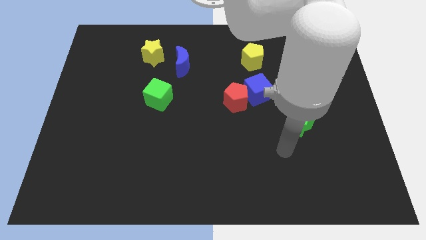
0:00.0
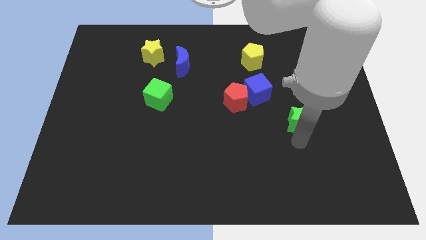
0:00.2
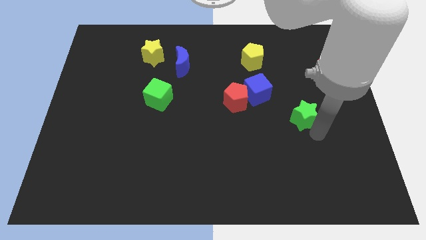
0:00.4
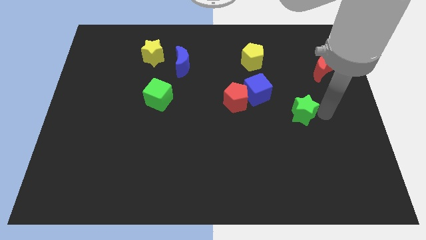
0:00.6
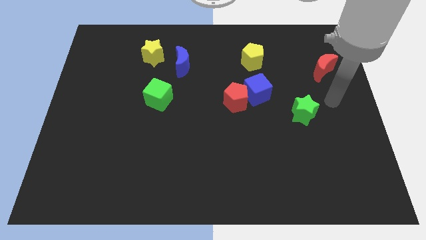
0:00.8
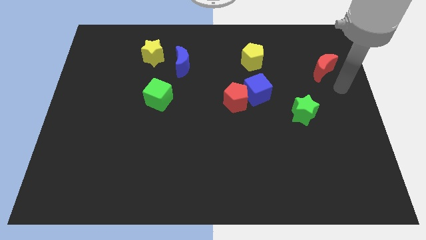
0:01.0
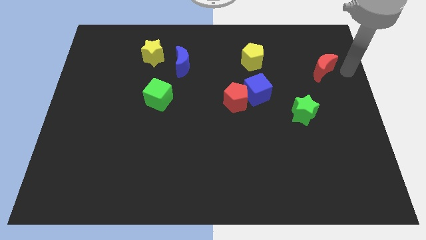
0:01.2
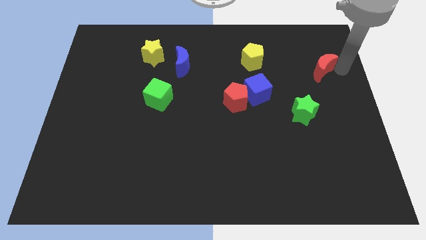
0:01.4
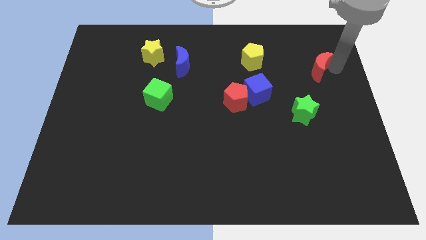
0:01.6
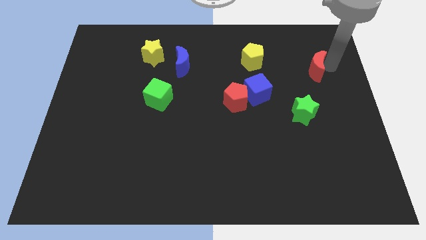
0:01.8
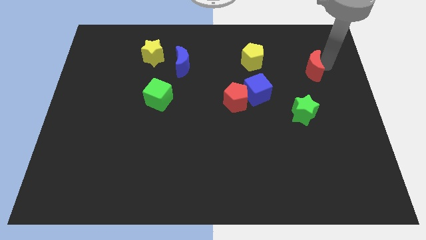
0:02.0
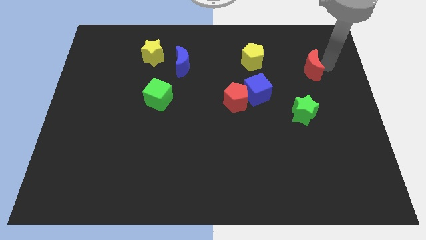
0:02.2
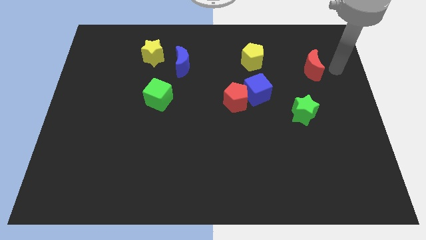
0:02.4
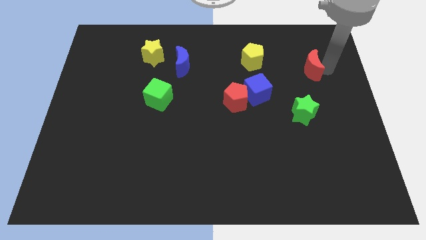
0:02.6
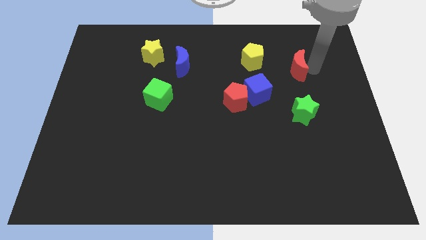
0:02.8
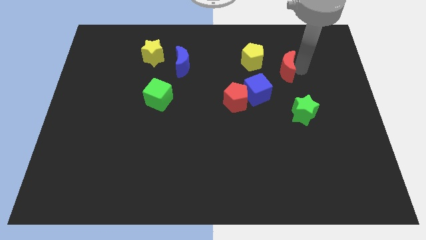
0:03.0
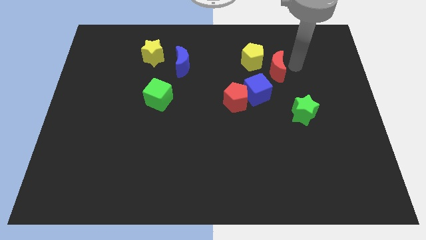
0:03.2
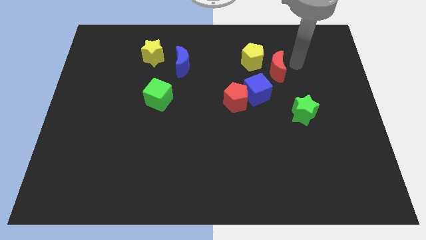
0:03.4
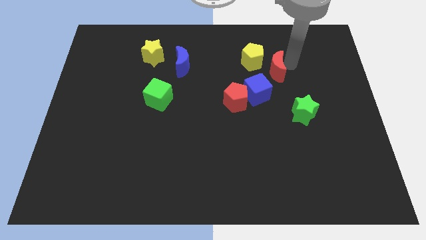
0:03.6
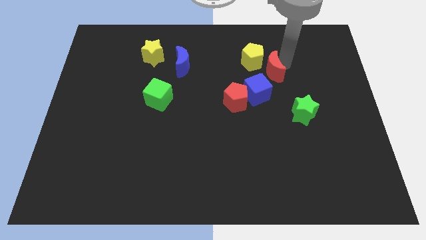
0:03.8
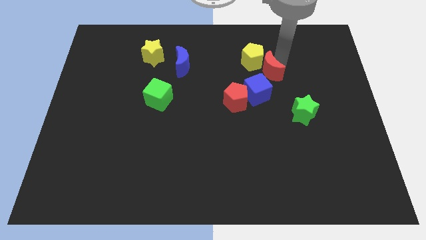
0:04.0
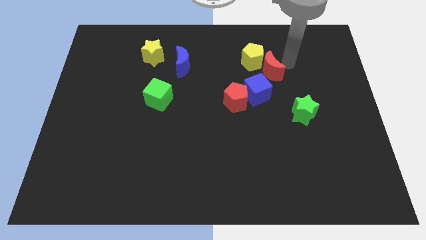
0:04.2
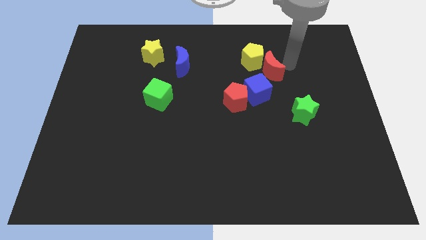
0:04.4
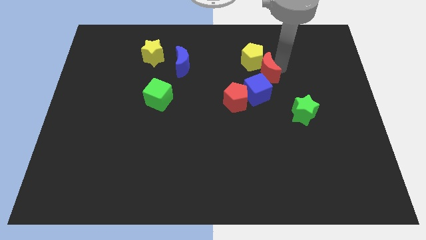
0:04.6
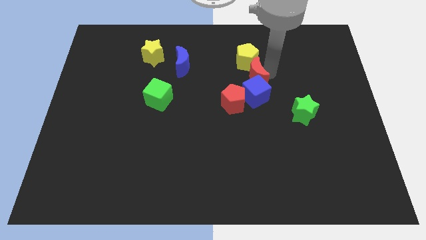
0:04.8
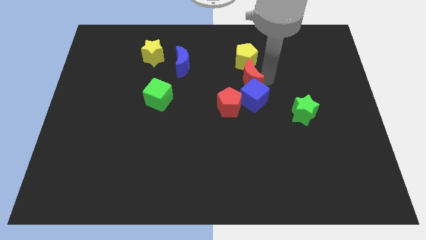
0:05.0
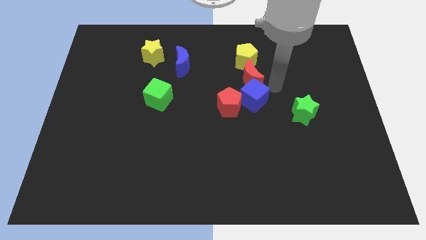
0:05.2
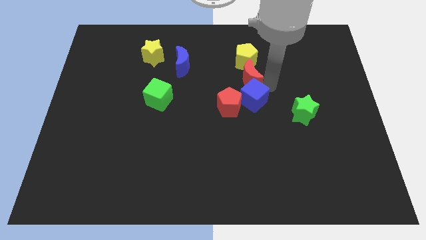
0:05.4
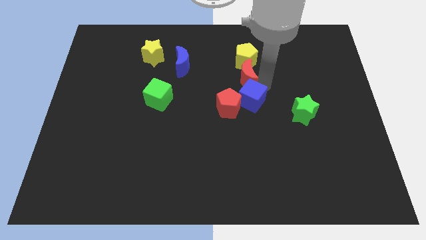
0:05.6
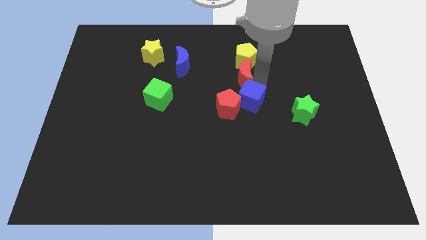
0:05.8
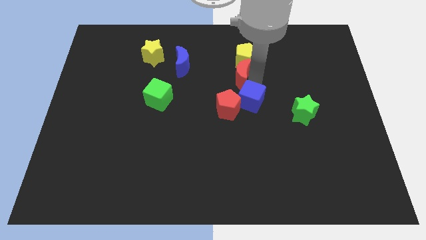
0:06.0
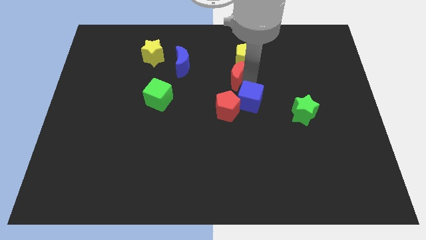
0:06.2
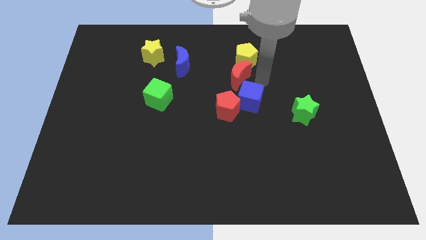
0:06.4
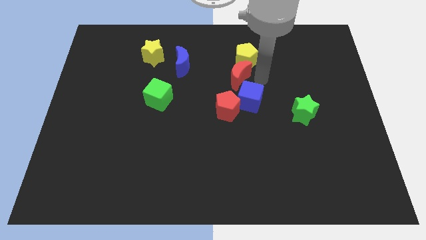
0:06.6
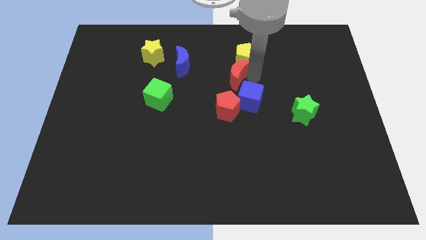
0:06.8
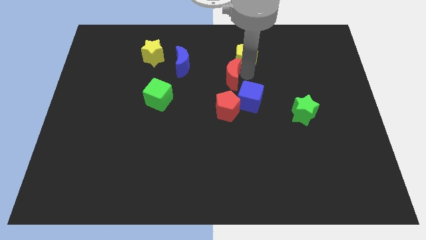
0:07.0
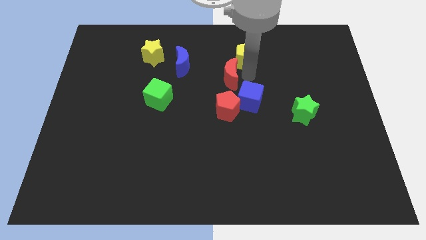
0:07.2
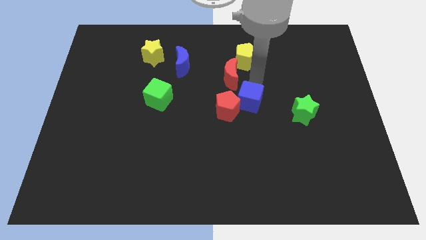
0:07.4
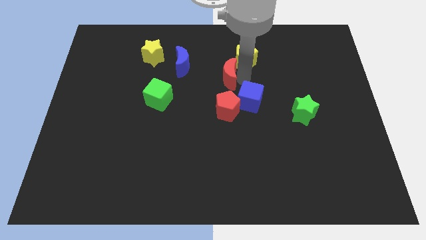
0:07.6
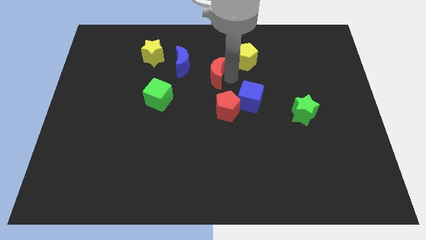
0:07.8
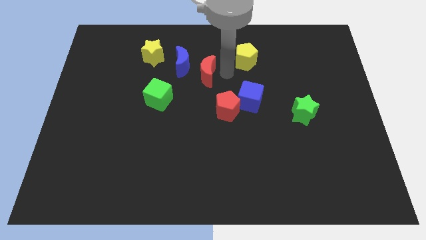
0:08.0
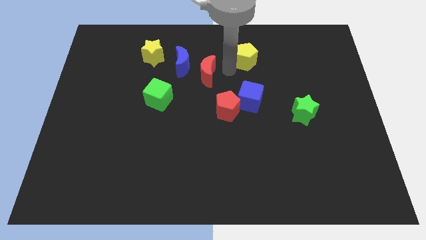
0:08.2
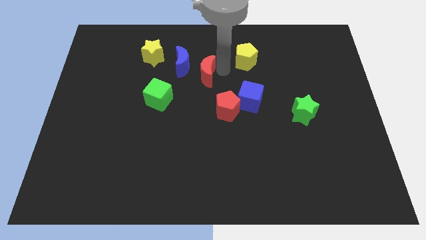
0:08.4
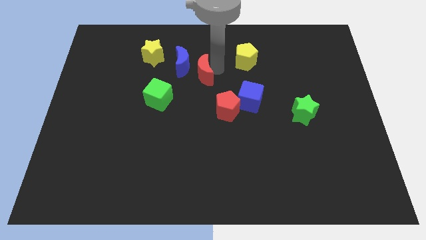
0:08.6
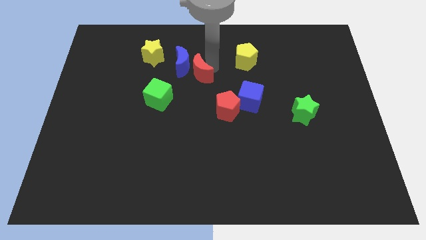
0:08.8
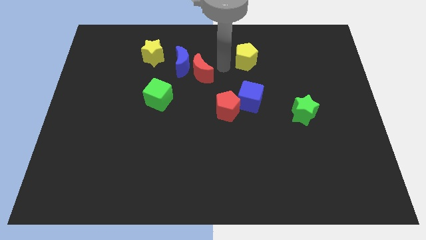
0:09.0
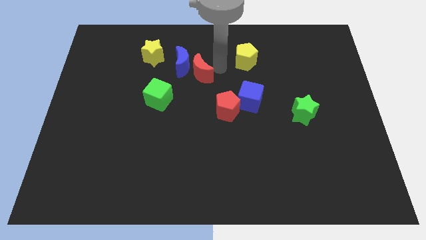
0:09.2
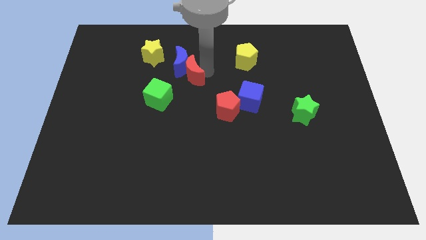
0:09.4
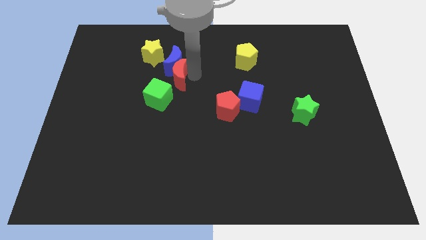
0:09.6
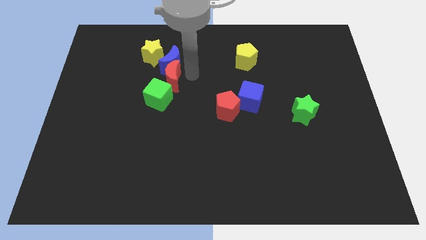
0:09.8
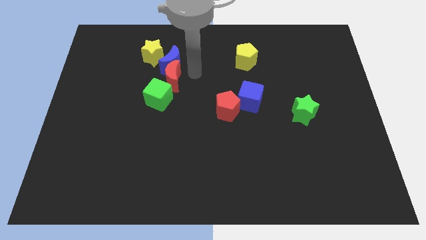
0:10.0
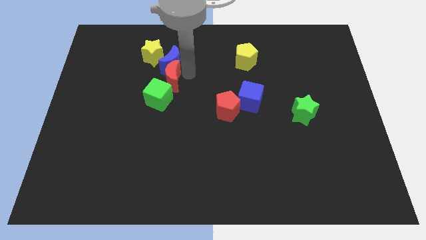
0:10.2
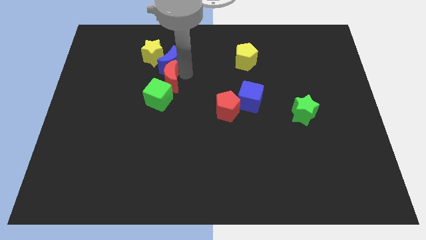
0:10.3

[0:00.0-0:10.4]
move the red moon to the bottom of the yellow star

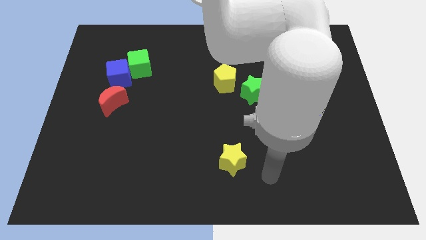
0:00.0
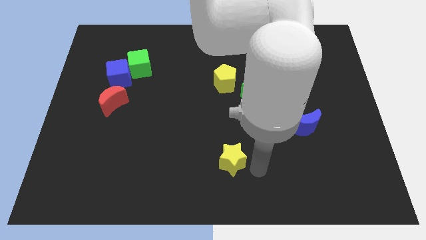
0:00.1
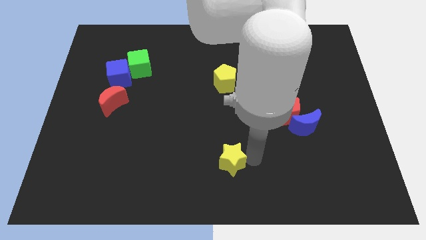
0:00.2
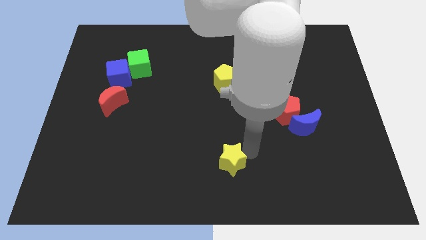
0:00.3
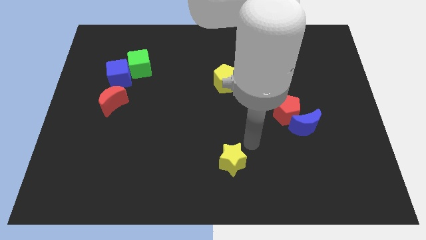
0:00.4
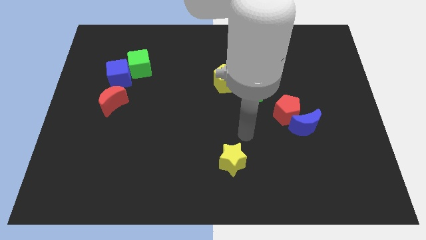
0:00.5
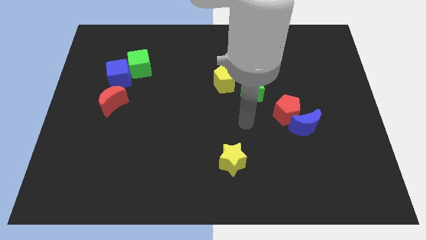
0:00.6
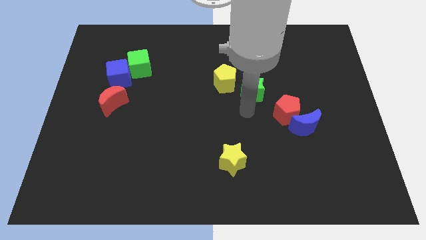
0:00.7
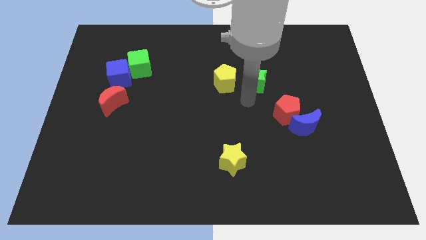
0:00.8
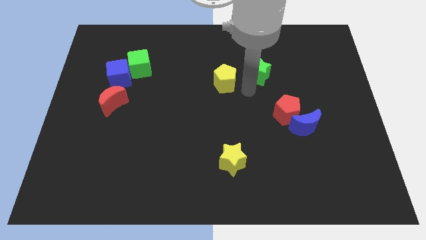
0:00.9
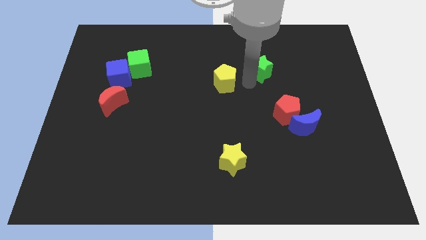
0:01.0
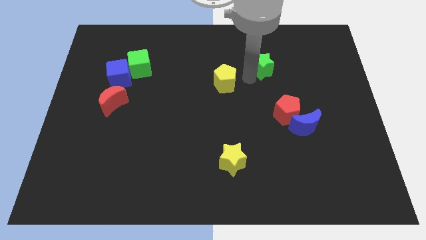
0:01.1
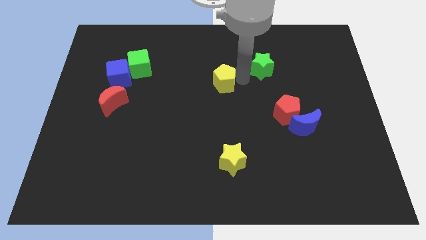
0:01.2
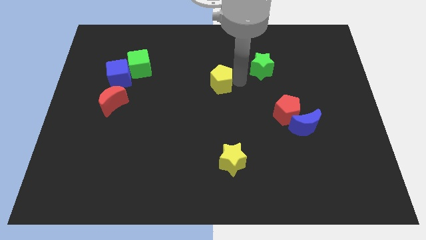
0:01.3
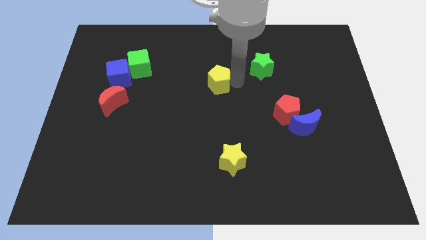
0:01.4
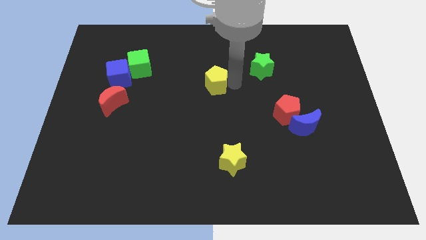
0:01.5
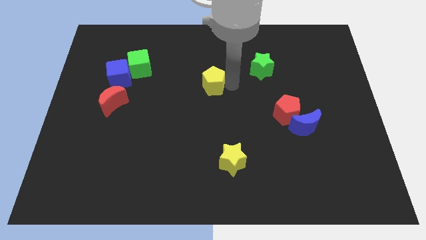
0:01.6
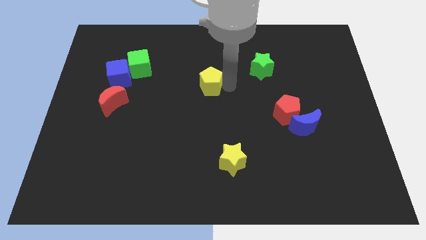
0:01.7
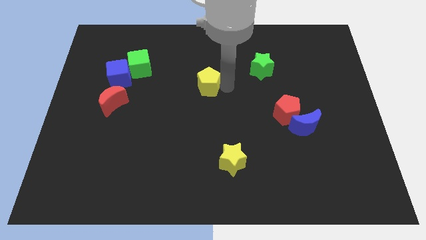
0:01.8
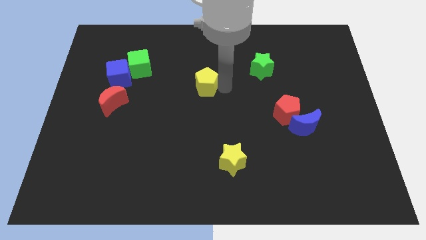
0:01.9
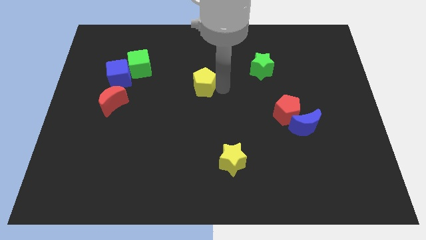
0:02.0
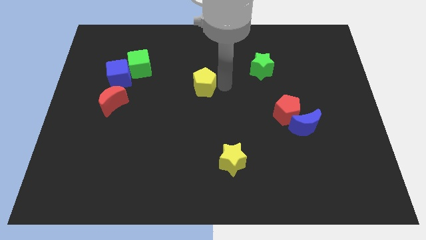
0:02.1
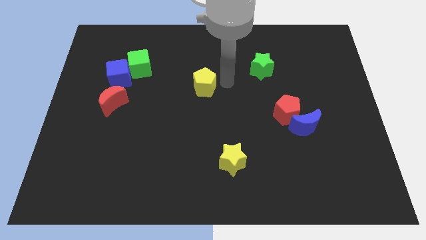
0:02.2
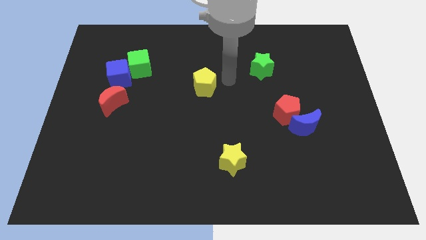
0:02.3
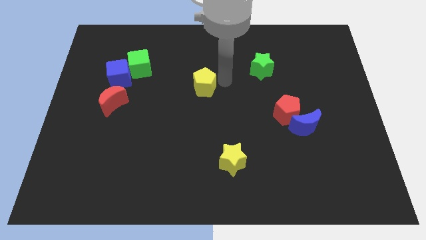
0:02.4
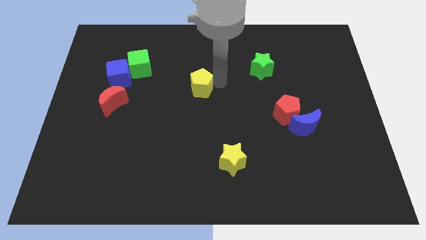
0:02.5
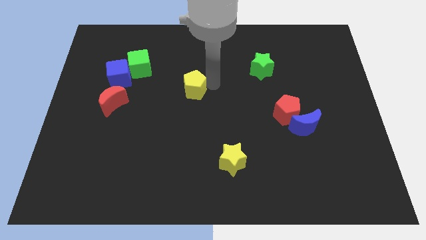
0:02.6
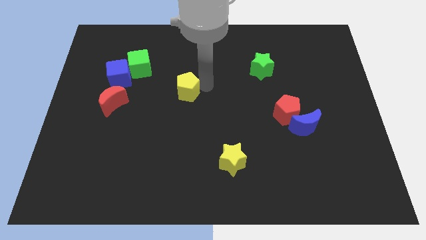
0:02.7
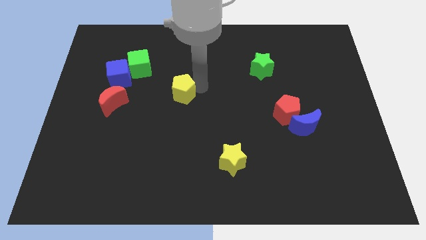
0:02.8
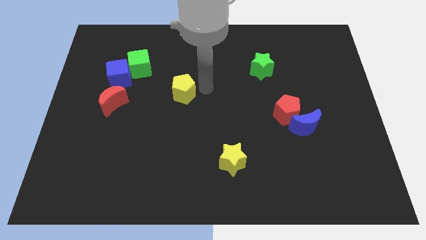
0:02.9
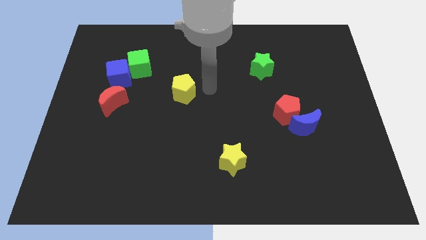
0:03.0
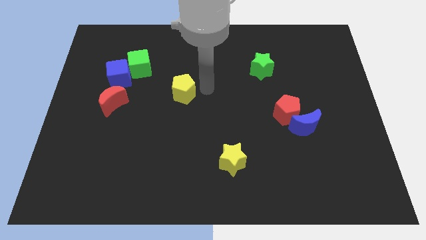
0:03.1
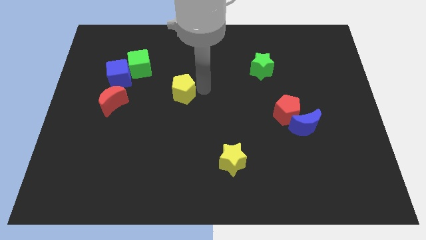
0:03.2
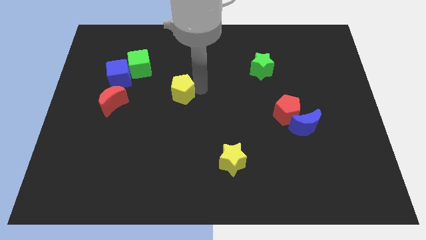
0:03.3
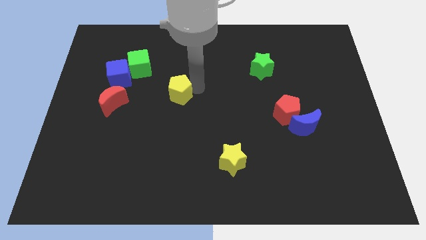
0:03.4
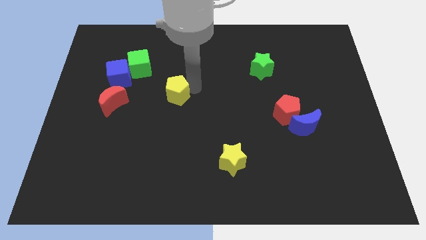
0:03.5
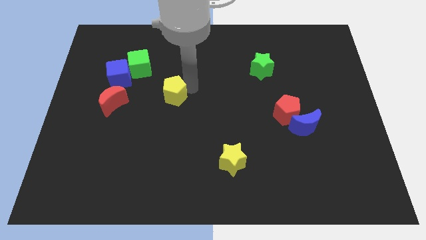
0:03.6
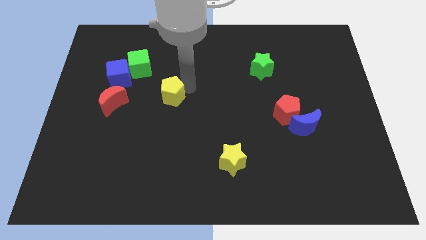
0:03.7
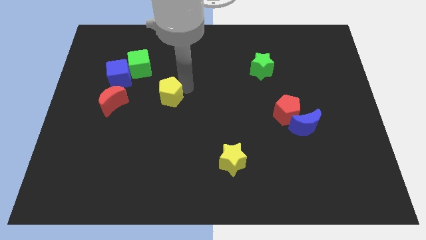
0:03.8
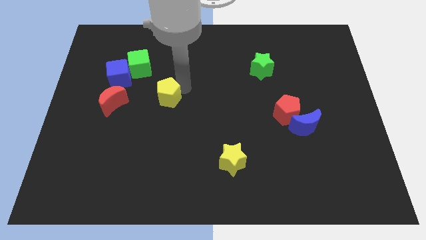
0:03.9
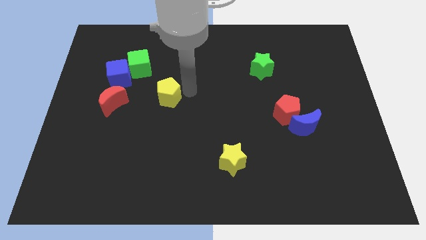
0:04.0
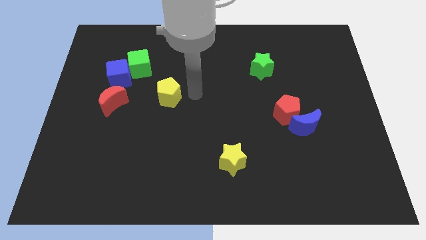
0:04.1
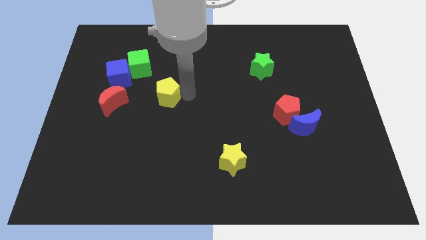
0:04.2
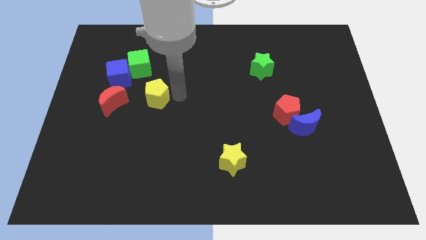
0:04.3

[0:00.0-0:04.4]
slide the yellow pentagon to the bottom of the green cube
